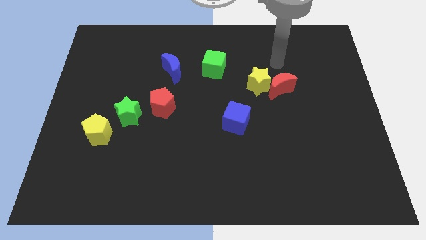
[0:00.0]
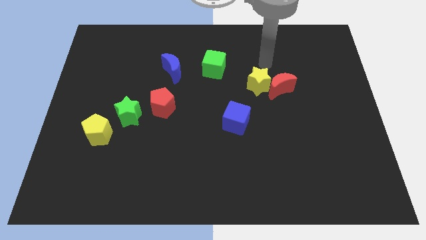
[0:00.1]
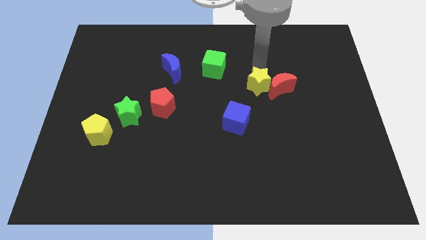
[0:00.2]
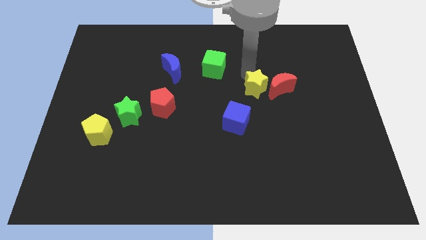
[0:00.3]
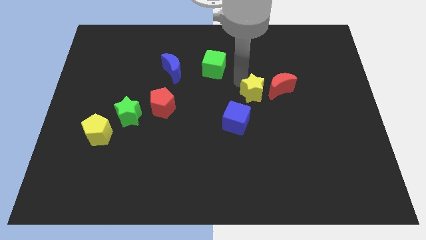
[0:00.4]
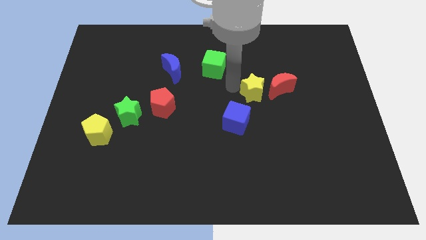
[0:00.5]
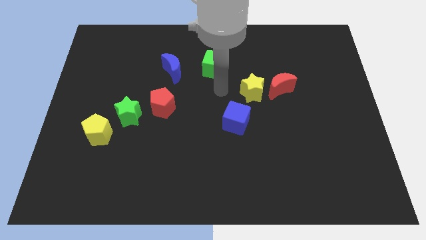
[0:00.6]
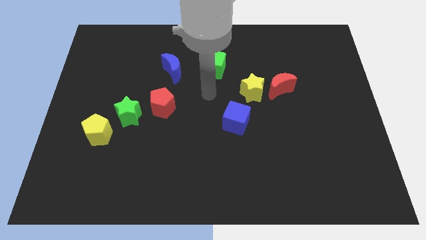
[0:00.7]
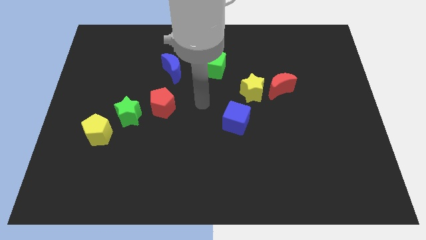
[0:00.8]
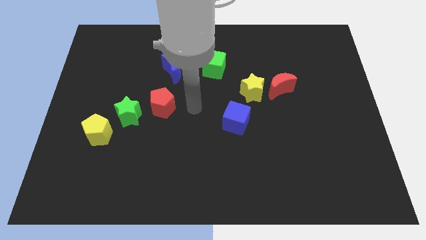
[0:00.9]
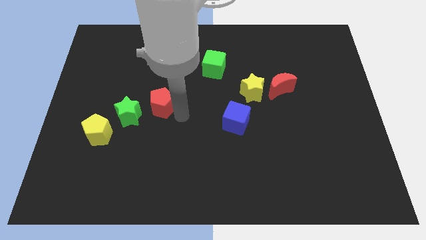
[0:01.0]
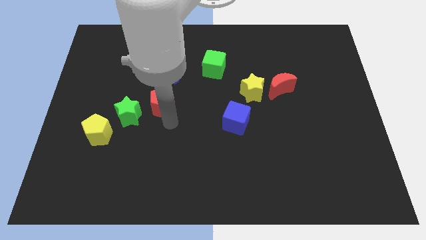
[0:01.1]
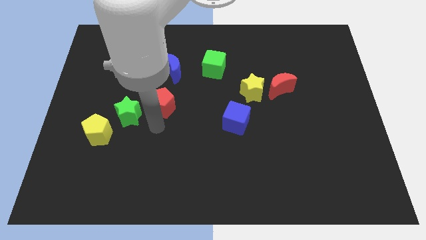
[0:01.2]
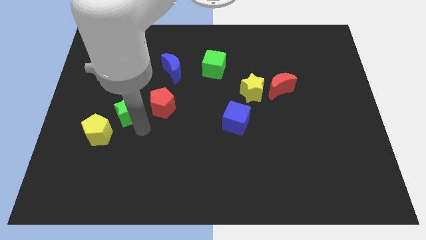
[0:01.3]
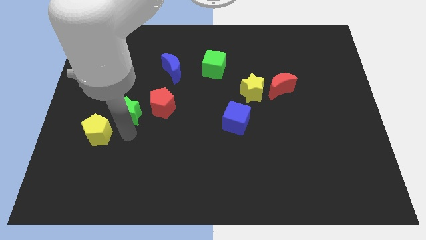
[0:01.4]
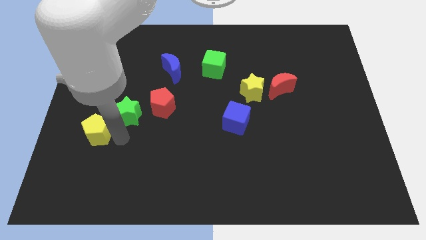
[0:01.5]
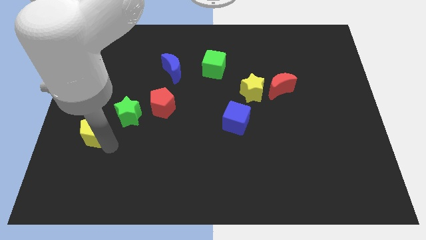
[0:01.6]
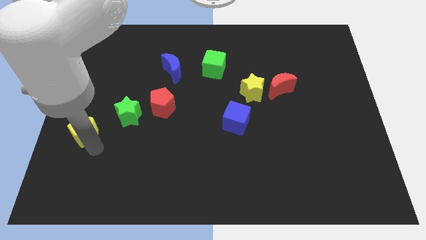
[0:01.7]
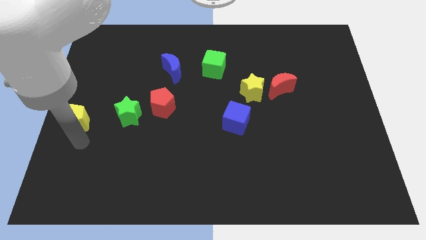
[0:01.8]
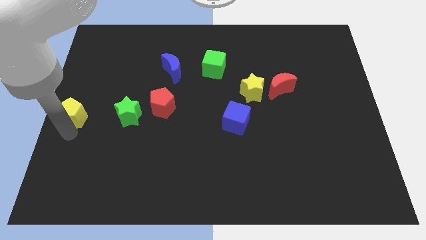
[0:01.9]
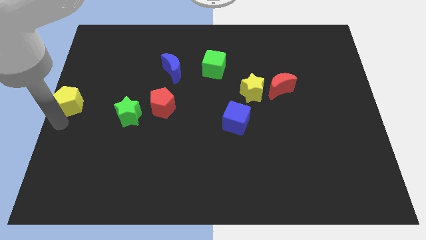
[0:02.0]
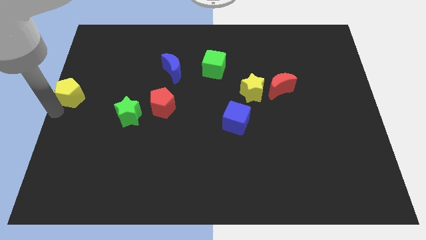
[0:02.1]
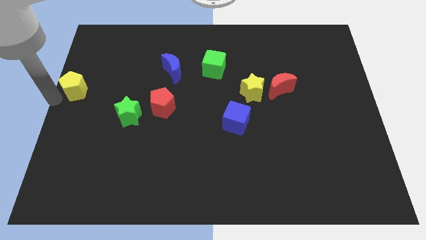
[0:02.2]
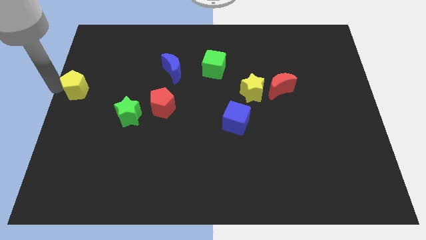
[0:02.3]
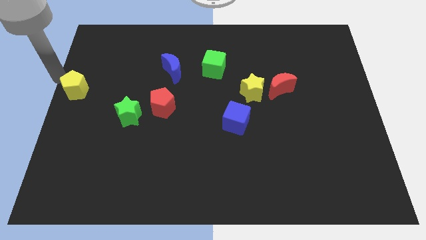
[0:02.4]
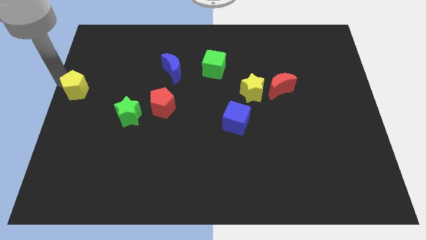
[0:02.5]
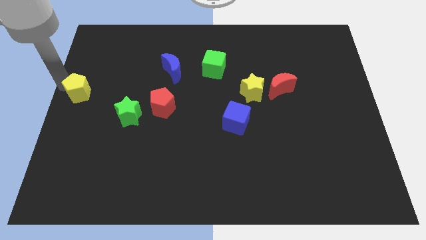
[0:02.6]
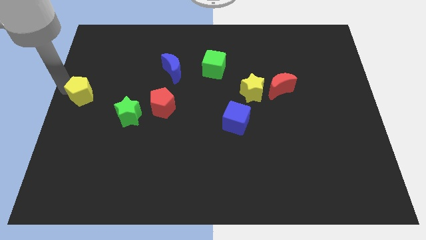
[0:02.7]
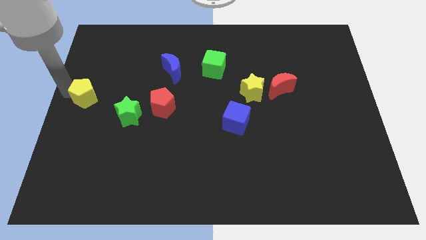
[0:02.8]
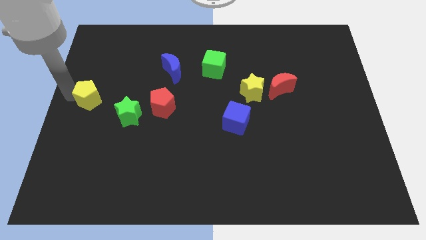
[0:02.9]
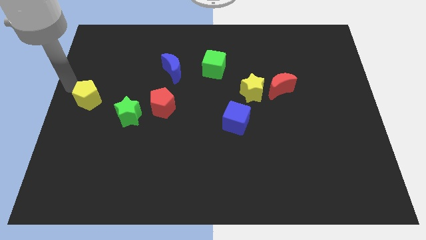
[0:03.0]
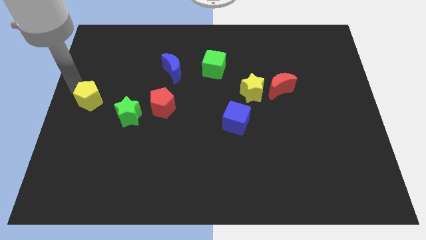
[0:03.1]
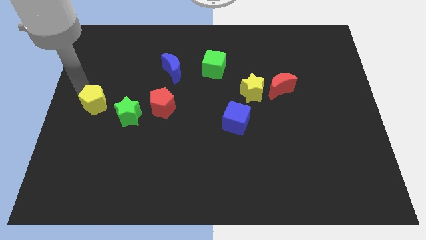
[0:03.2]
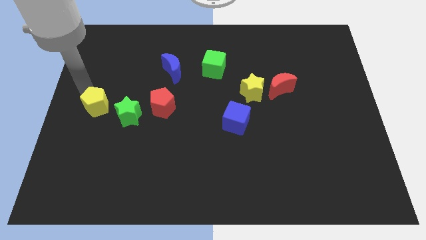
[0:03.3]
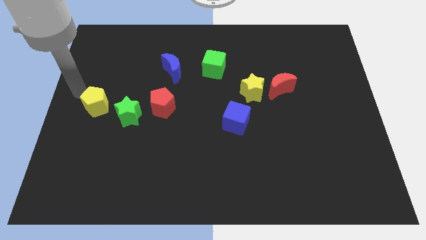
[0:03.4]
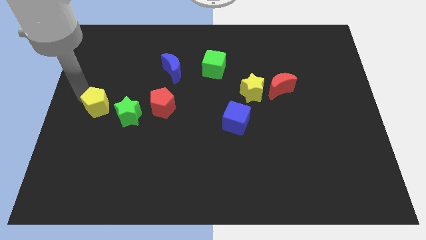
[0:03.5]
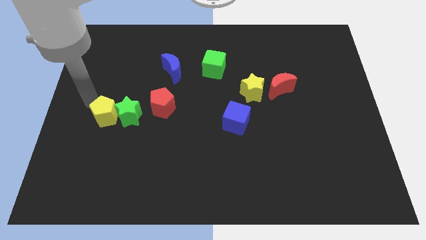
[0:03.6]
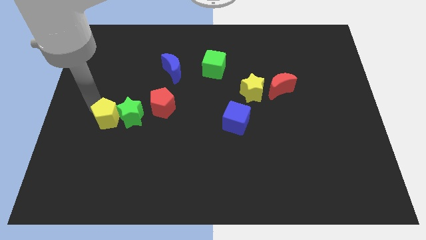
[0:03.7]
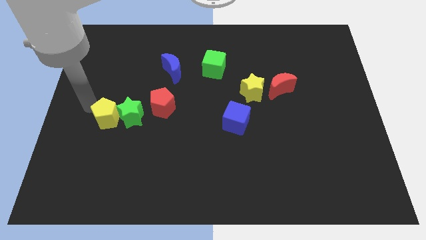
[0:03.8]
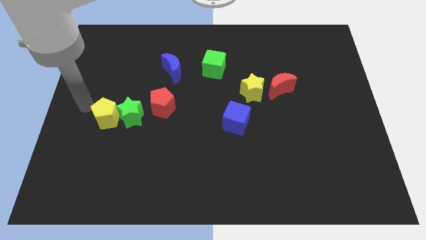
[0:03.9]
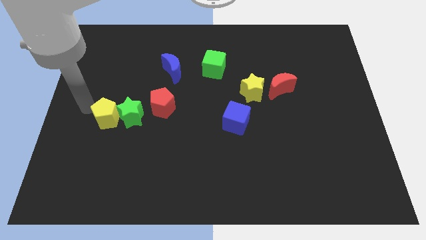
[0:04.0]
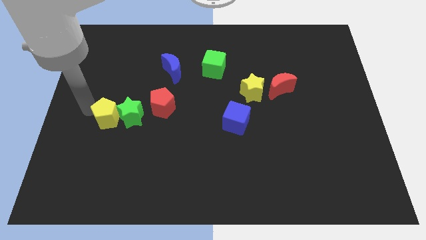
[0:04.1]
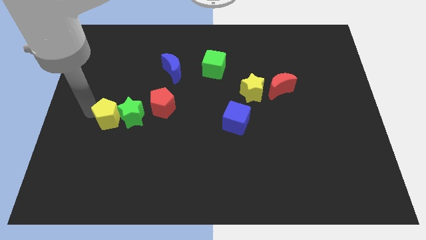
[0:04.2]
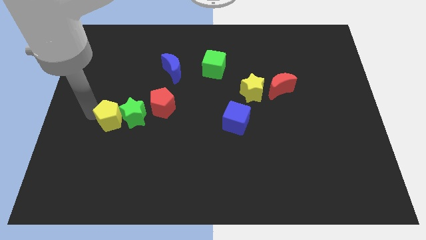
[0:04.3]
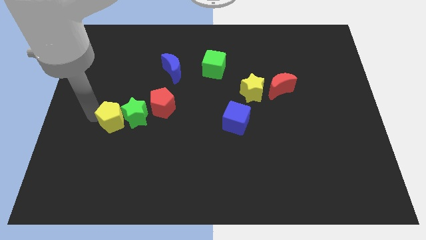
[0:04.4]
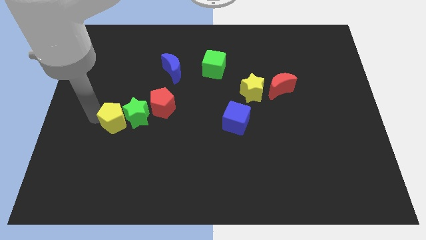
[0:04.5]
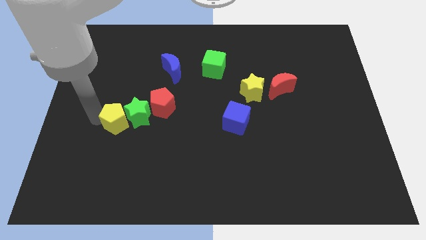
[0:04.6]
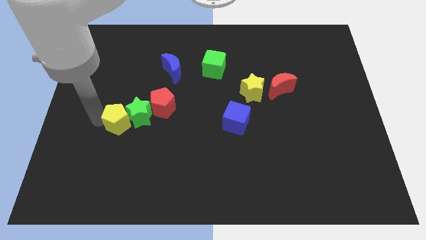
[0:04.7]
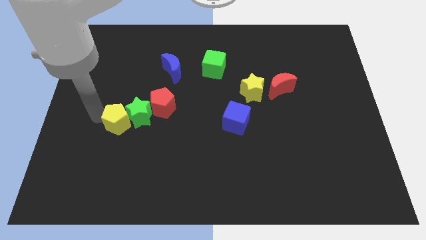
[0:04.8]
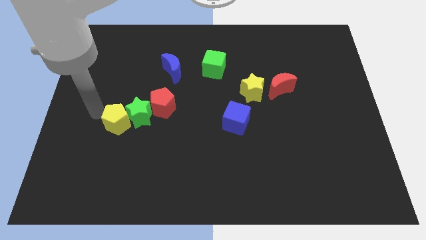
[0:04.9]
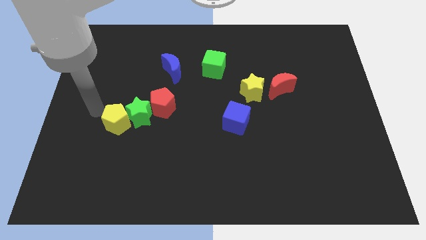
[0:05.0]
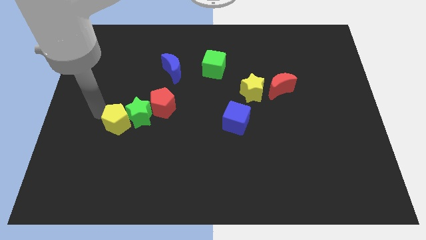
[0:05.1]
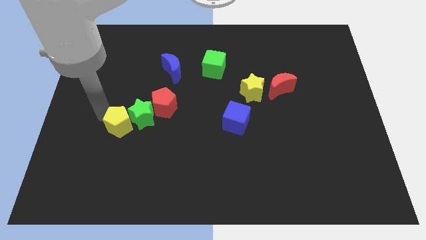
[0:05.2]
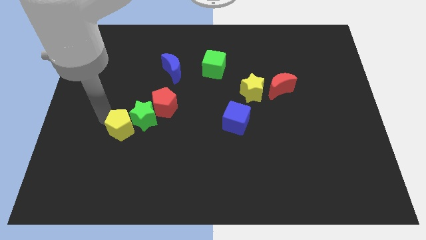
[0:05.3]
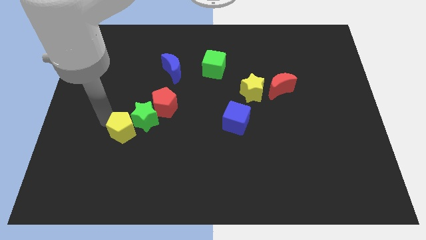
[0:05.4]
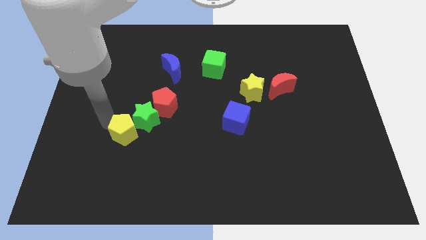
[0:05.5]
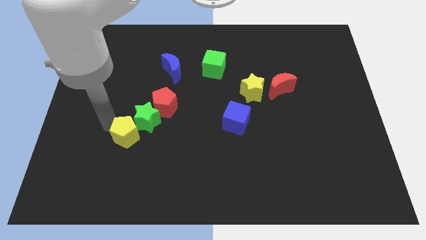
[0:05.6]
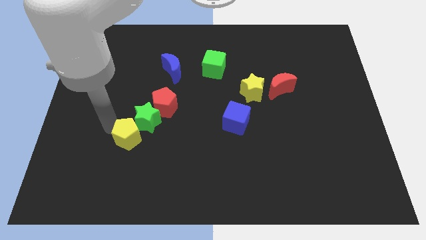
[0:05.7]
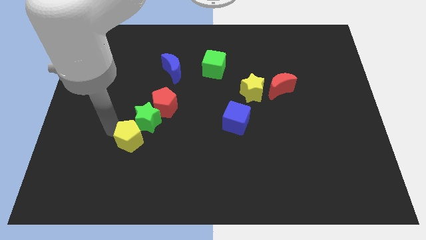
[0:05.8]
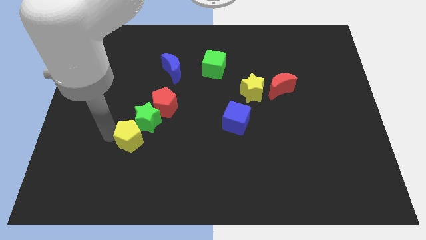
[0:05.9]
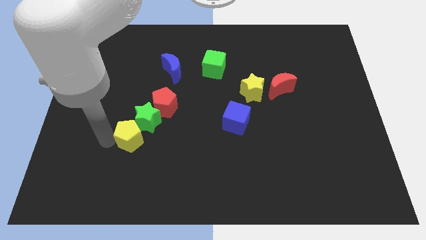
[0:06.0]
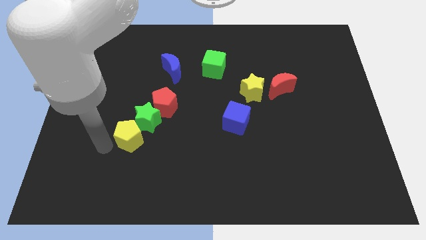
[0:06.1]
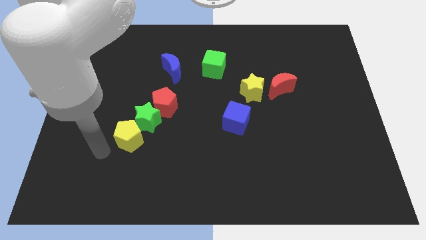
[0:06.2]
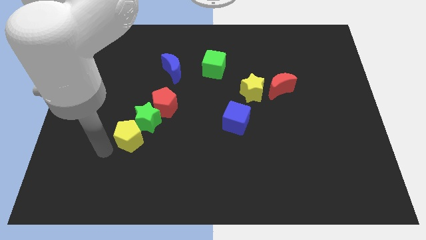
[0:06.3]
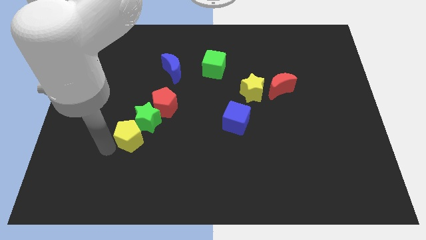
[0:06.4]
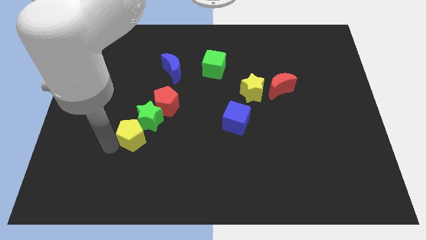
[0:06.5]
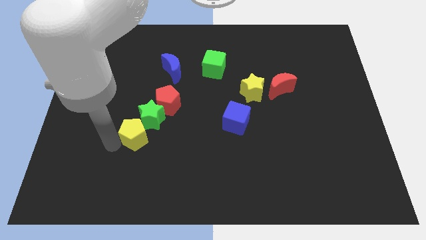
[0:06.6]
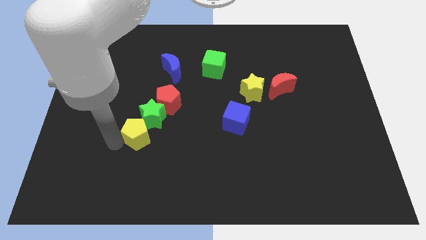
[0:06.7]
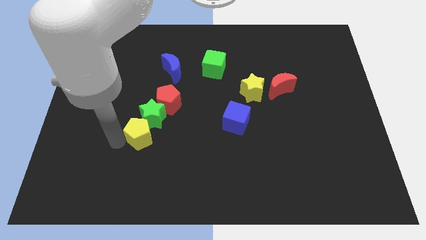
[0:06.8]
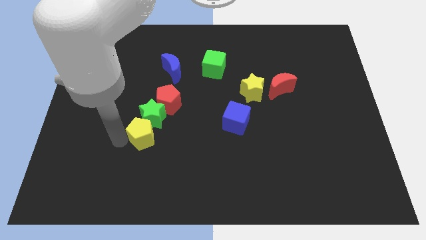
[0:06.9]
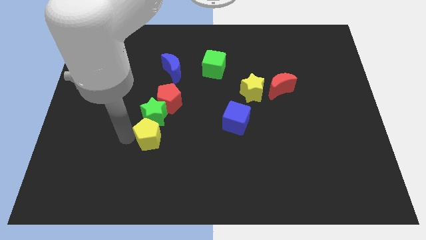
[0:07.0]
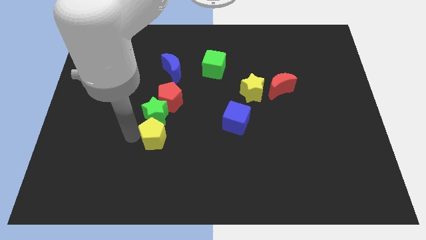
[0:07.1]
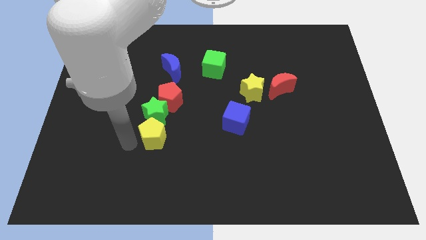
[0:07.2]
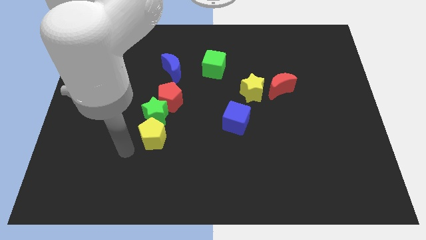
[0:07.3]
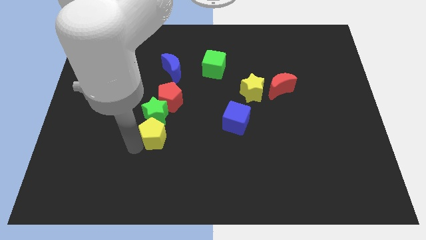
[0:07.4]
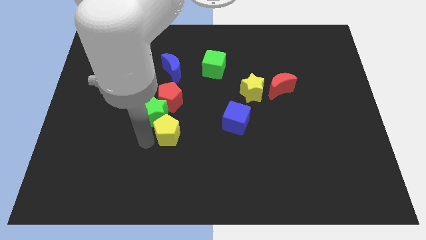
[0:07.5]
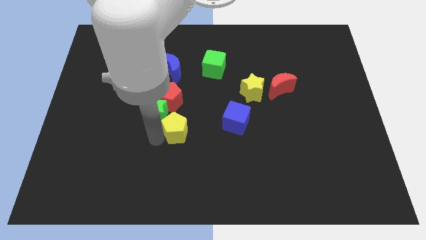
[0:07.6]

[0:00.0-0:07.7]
push the yellow pentagon just right of the green star

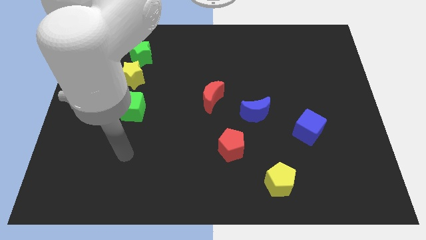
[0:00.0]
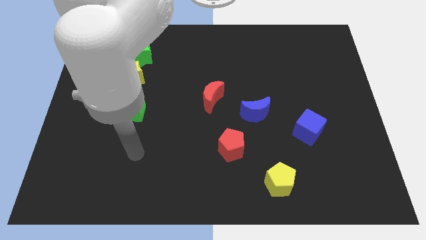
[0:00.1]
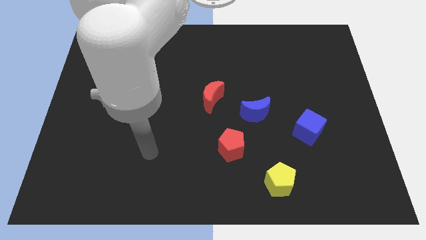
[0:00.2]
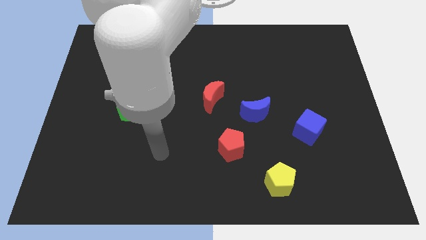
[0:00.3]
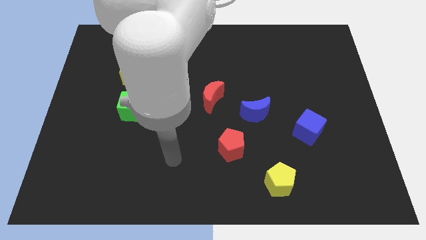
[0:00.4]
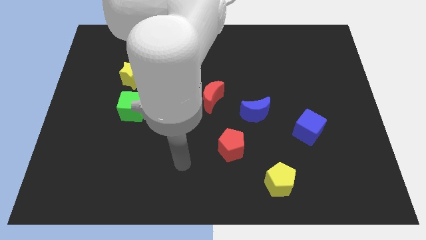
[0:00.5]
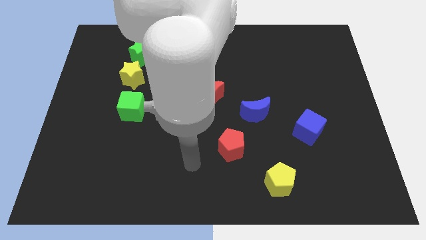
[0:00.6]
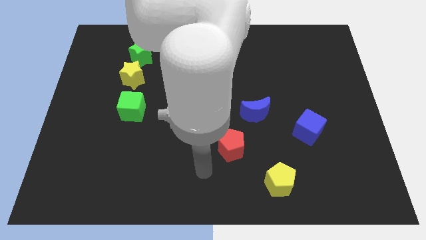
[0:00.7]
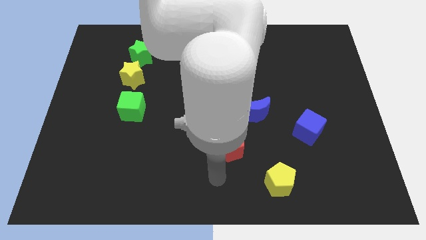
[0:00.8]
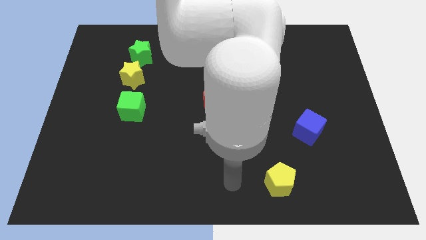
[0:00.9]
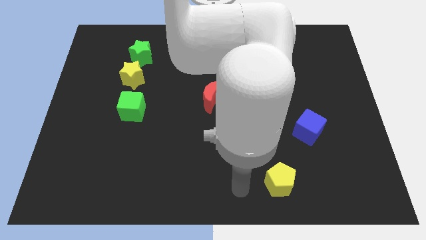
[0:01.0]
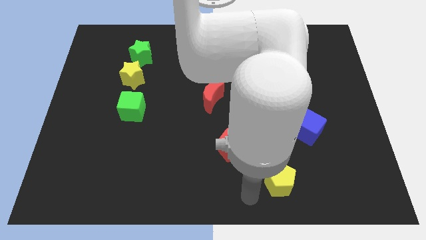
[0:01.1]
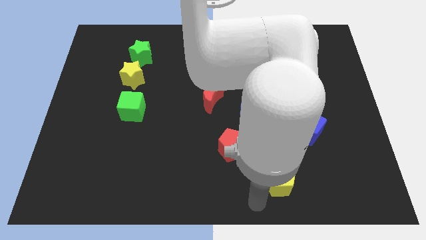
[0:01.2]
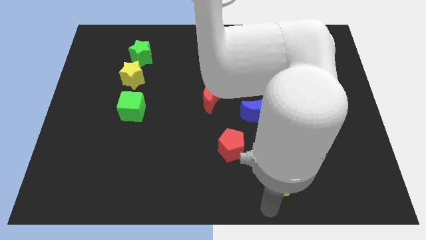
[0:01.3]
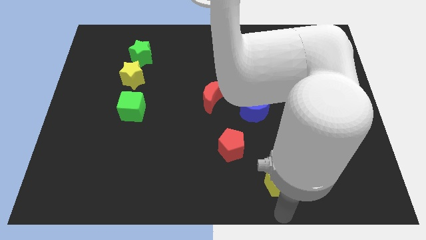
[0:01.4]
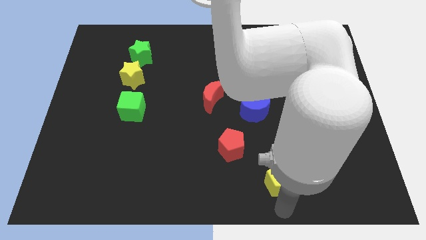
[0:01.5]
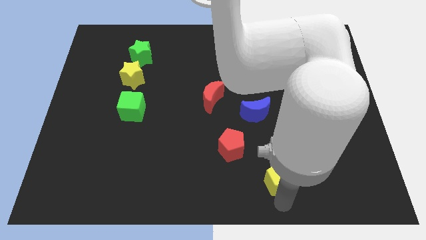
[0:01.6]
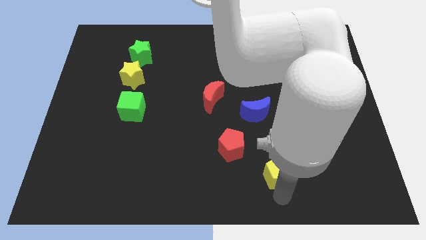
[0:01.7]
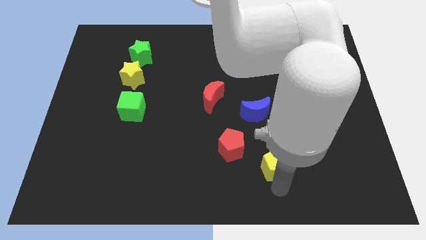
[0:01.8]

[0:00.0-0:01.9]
slide the yellow pentagon just right of the red pentagon
